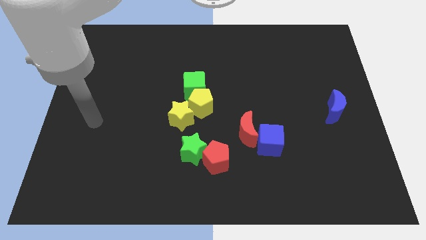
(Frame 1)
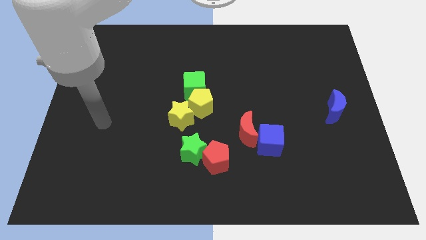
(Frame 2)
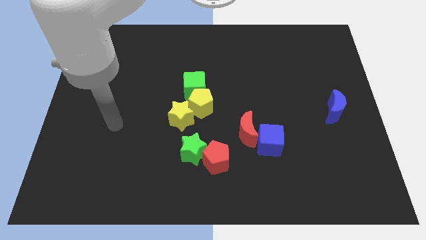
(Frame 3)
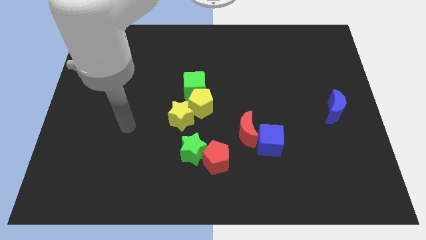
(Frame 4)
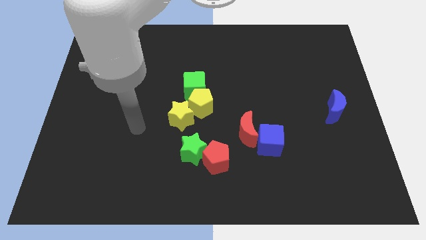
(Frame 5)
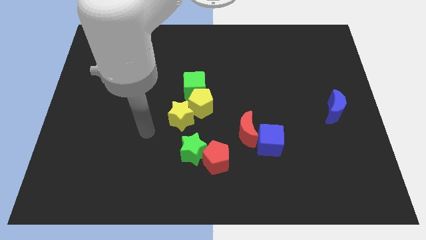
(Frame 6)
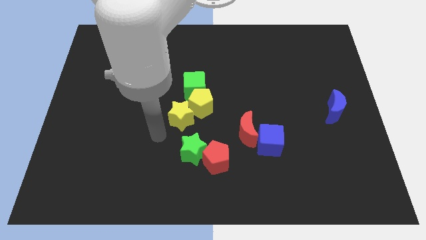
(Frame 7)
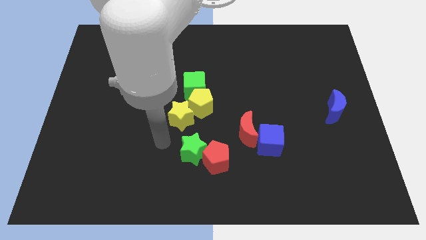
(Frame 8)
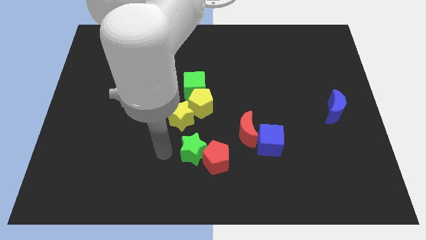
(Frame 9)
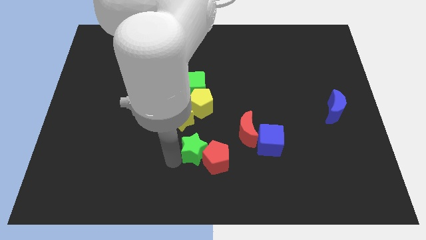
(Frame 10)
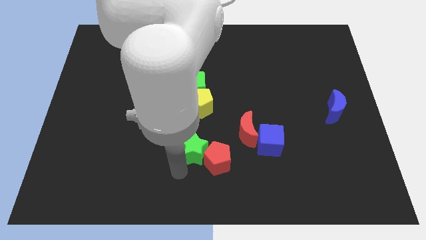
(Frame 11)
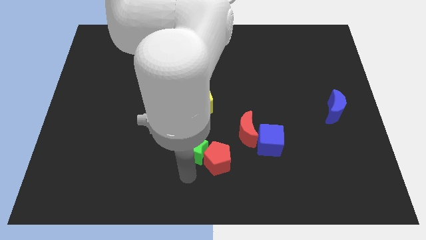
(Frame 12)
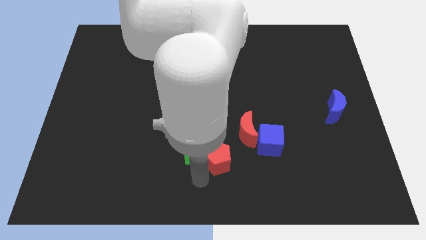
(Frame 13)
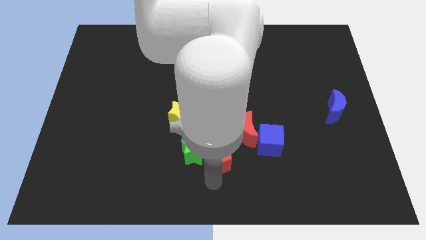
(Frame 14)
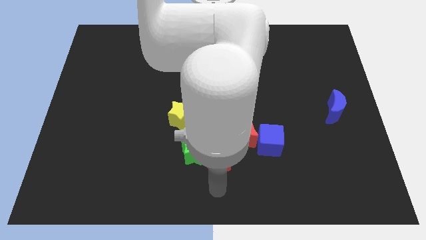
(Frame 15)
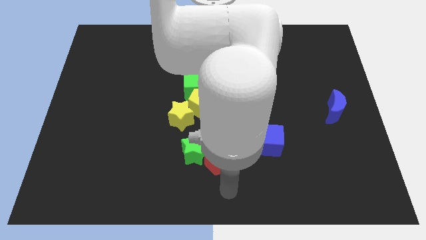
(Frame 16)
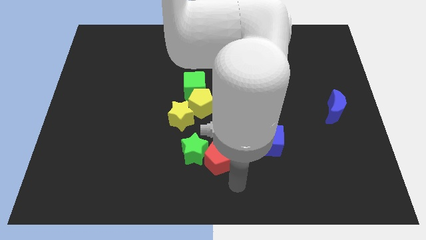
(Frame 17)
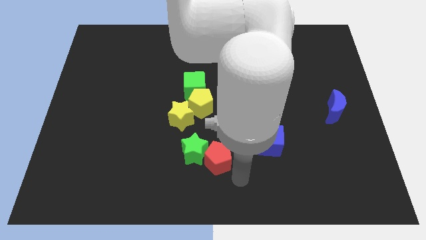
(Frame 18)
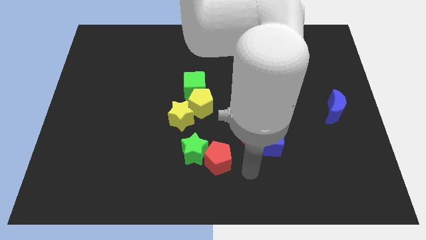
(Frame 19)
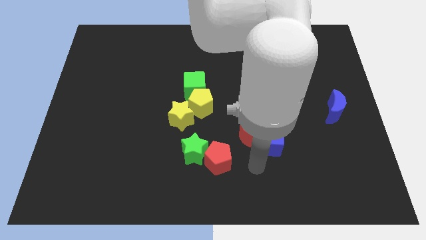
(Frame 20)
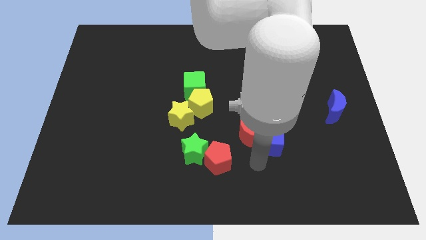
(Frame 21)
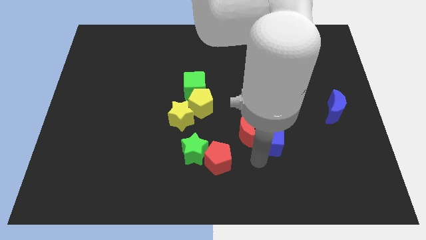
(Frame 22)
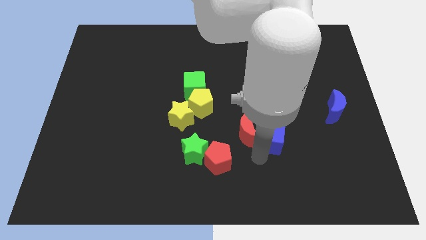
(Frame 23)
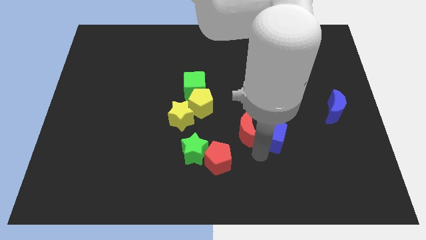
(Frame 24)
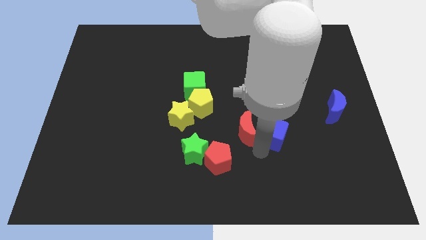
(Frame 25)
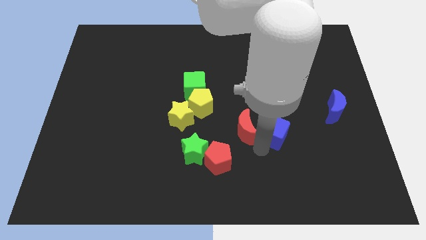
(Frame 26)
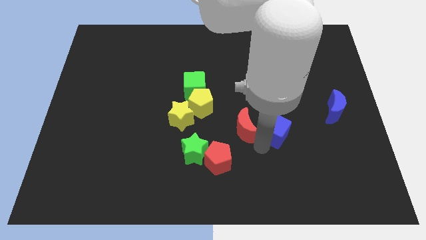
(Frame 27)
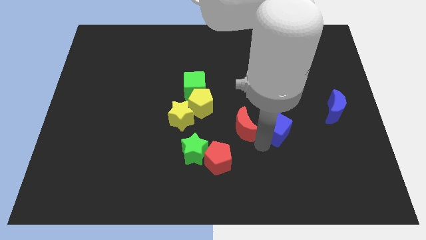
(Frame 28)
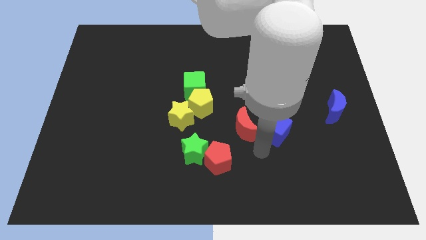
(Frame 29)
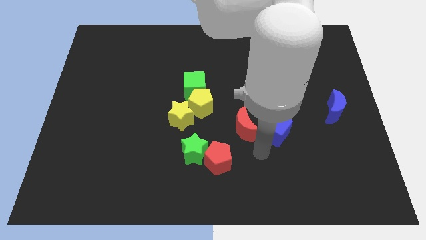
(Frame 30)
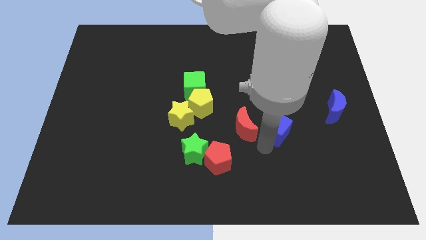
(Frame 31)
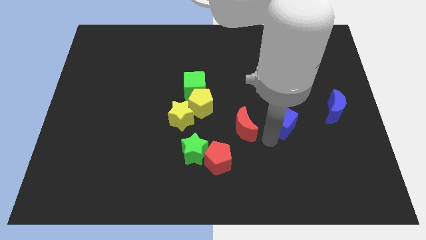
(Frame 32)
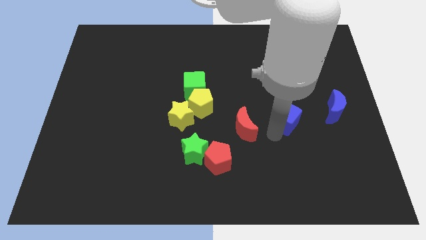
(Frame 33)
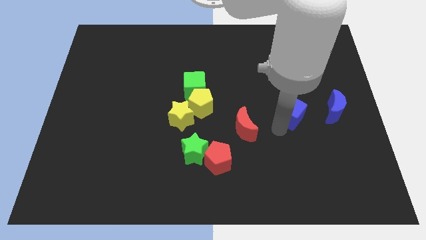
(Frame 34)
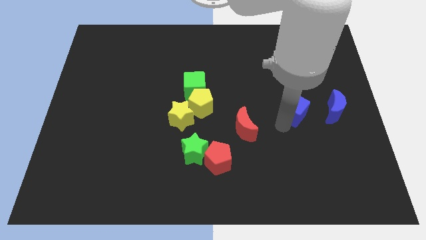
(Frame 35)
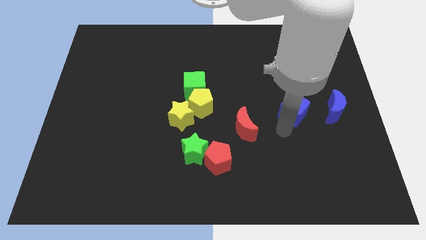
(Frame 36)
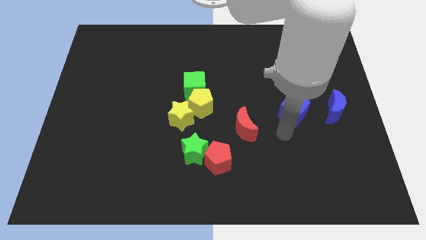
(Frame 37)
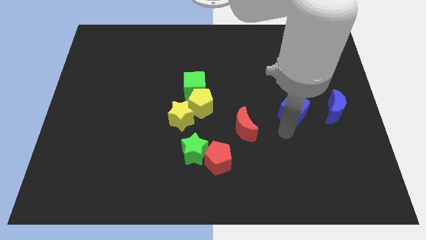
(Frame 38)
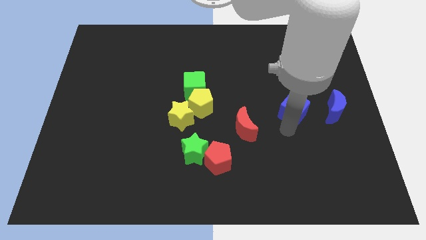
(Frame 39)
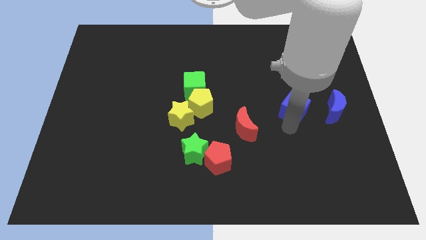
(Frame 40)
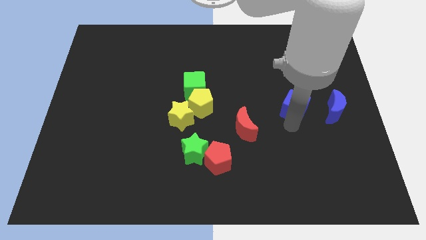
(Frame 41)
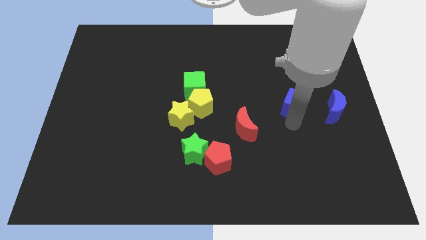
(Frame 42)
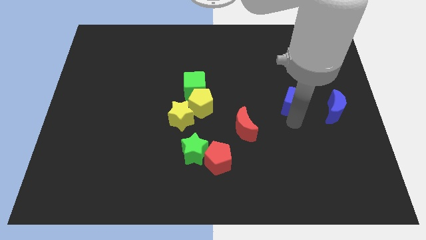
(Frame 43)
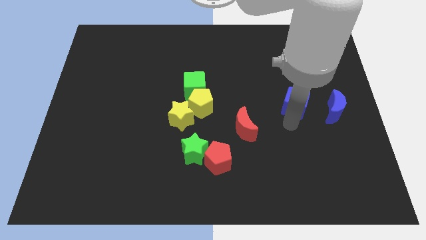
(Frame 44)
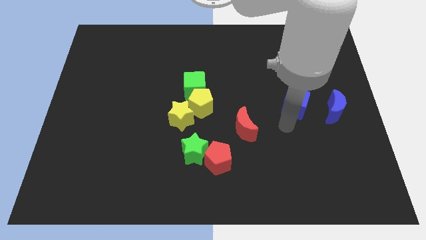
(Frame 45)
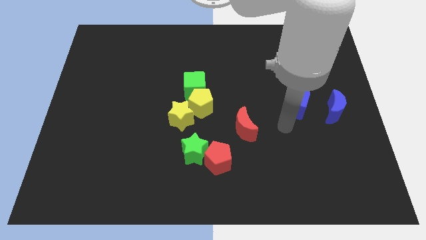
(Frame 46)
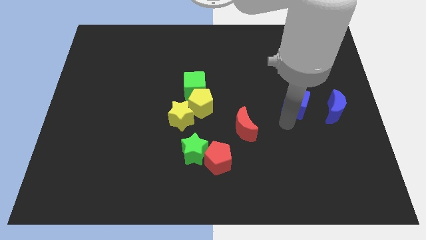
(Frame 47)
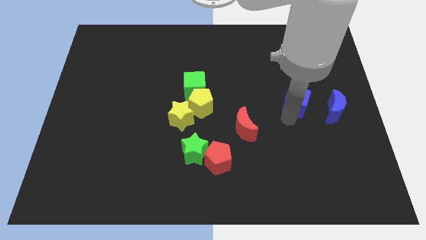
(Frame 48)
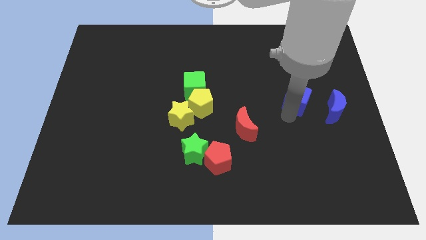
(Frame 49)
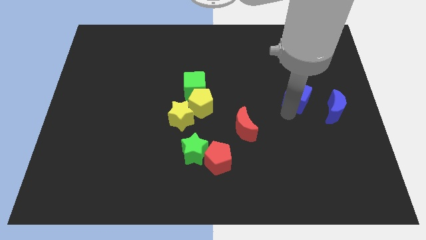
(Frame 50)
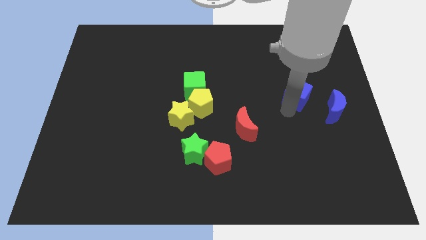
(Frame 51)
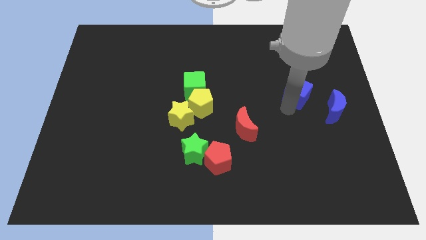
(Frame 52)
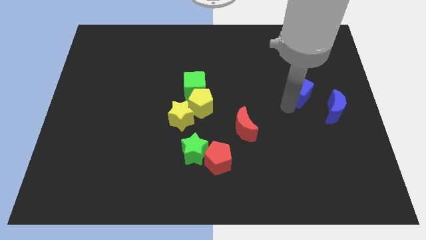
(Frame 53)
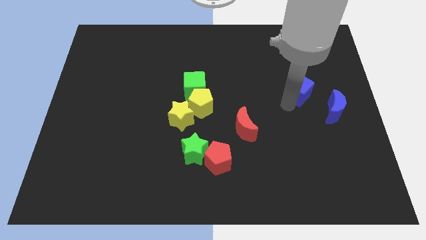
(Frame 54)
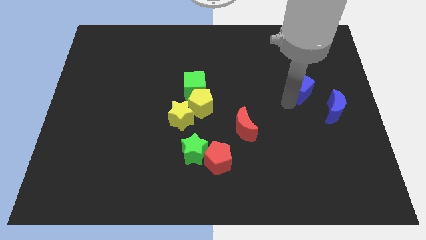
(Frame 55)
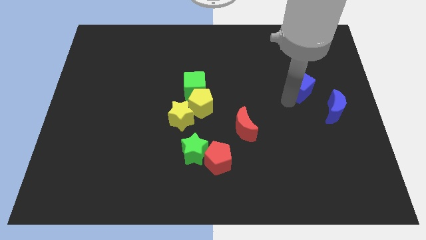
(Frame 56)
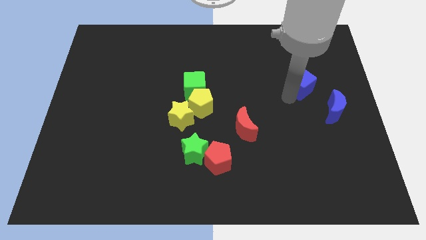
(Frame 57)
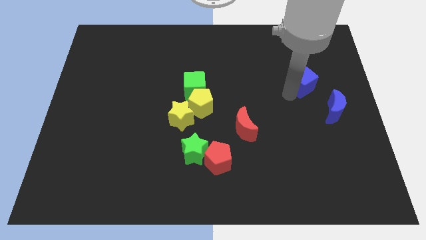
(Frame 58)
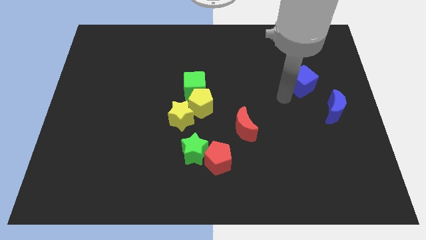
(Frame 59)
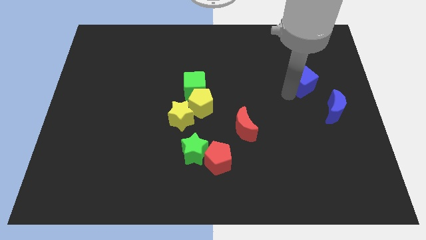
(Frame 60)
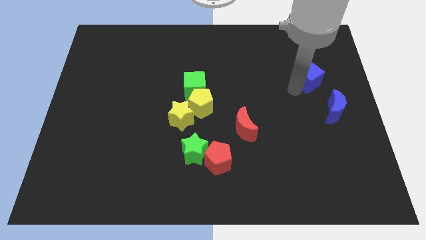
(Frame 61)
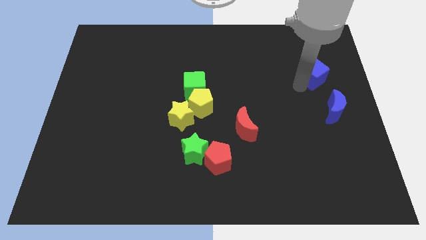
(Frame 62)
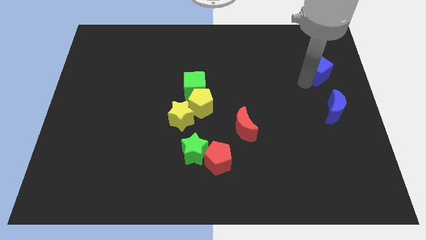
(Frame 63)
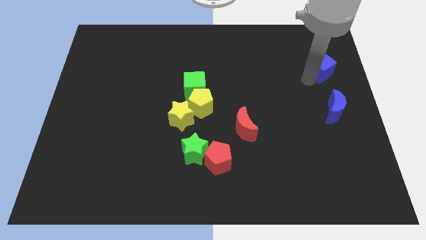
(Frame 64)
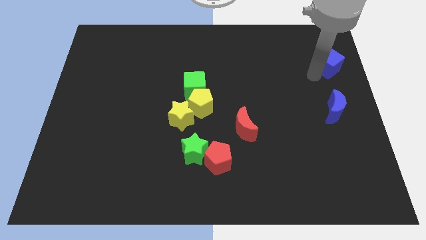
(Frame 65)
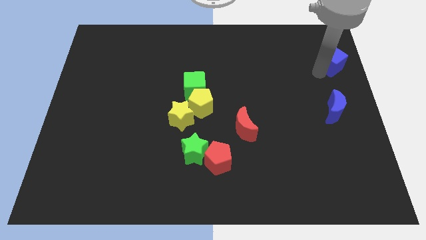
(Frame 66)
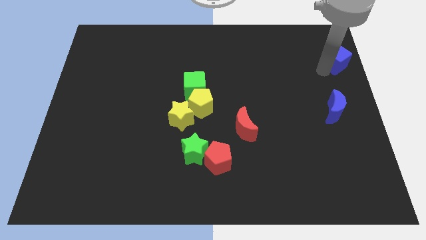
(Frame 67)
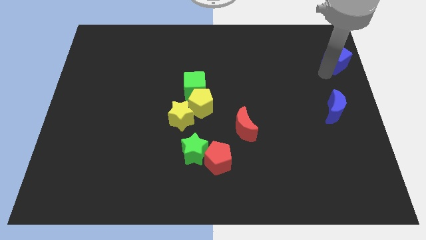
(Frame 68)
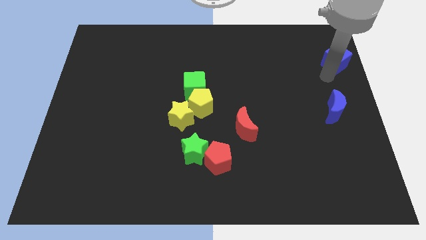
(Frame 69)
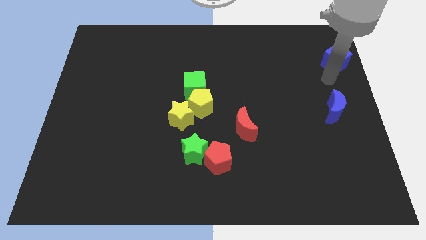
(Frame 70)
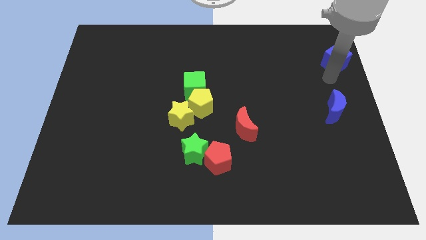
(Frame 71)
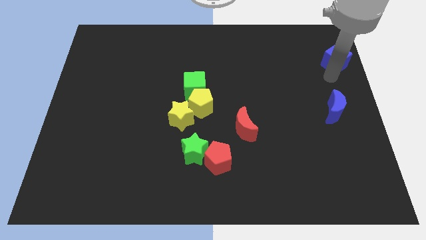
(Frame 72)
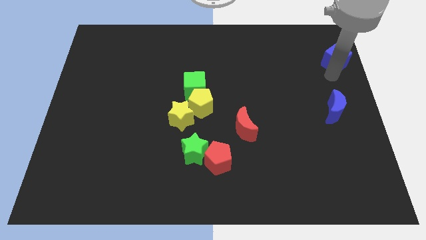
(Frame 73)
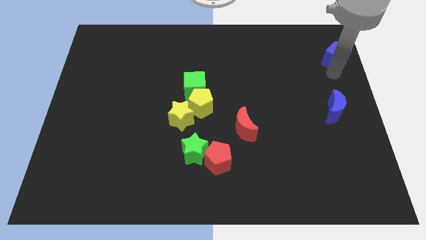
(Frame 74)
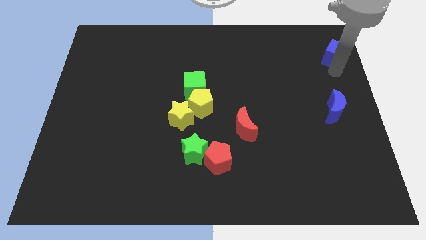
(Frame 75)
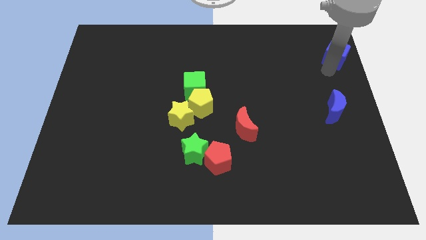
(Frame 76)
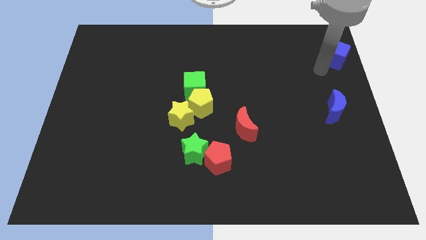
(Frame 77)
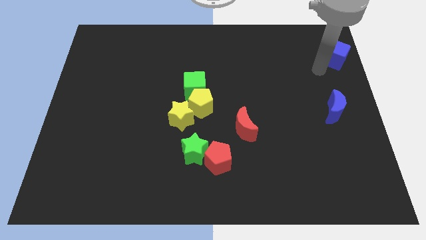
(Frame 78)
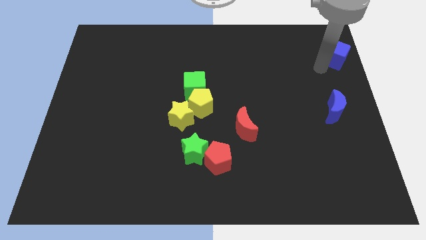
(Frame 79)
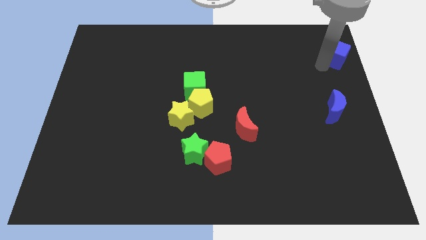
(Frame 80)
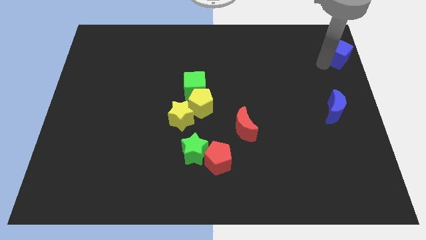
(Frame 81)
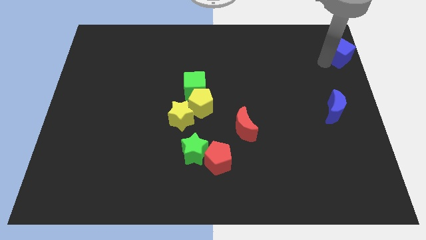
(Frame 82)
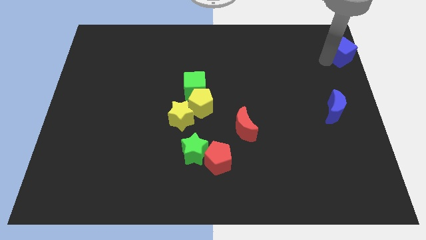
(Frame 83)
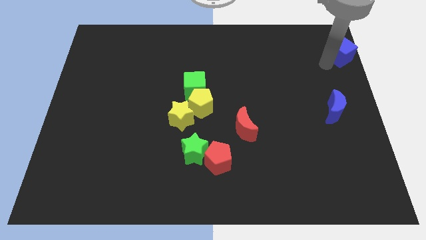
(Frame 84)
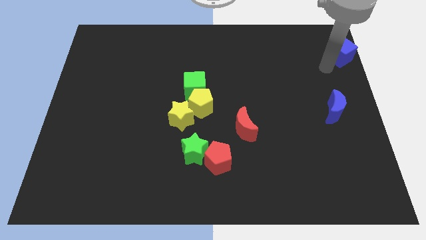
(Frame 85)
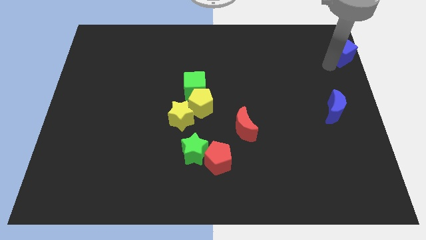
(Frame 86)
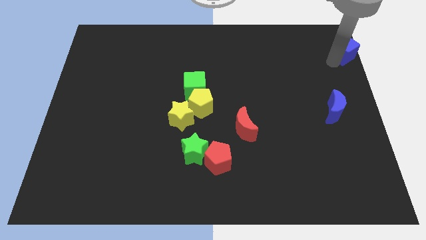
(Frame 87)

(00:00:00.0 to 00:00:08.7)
put the blue cube to the top right of the board
